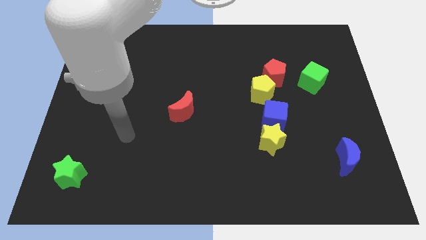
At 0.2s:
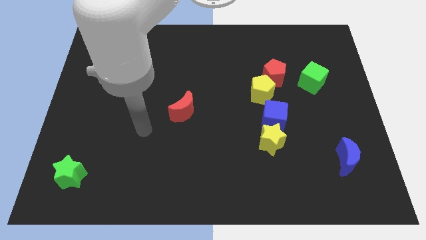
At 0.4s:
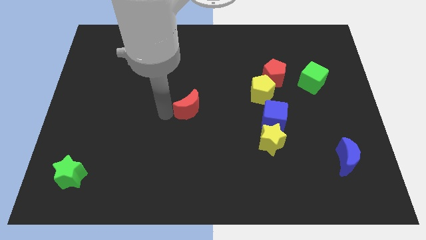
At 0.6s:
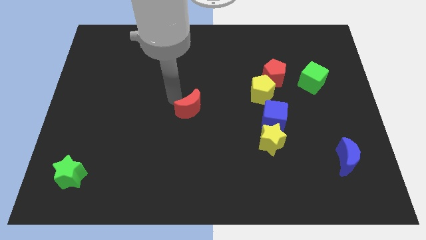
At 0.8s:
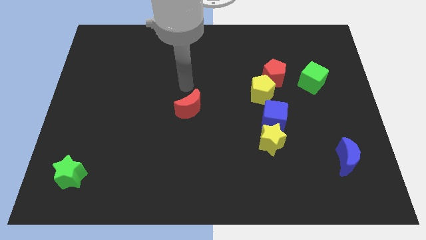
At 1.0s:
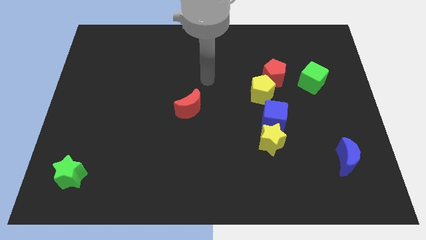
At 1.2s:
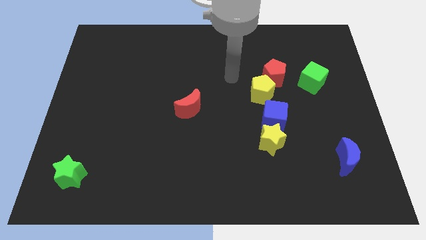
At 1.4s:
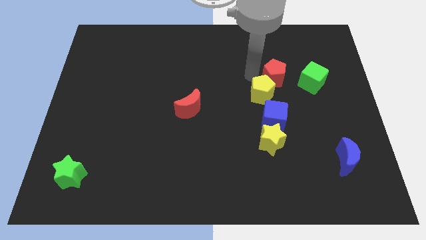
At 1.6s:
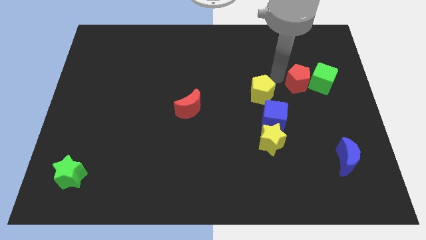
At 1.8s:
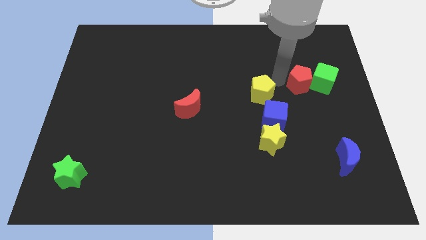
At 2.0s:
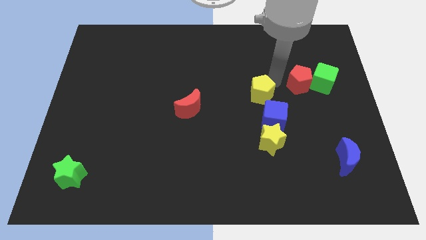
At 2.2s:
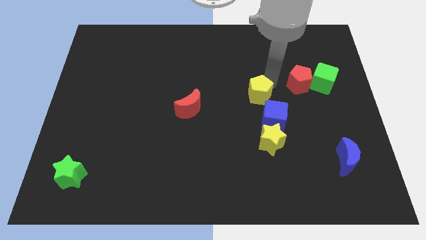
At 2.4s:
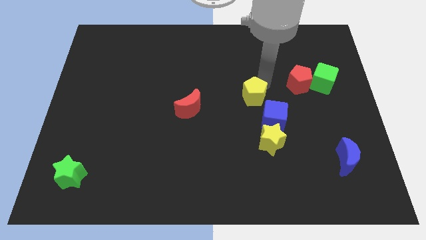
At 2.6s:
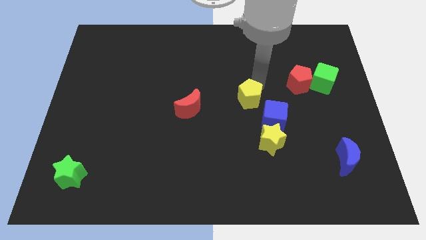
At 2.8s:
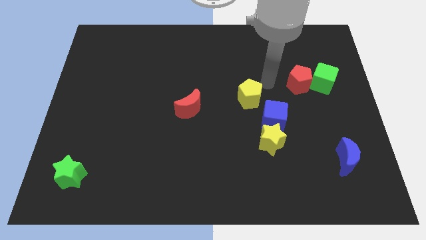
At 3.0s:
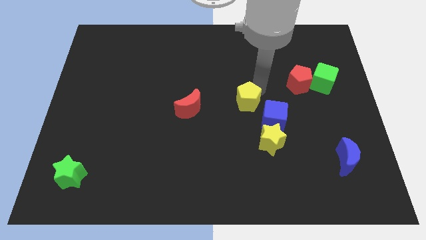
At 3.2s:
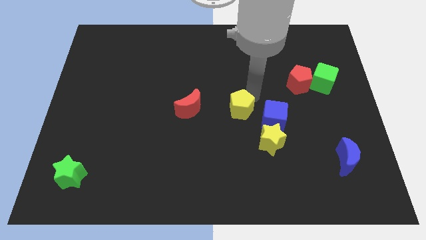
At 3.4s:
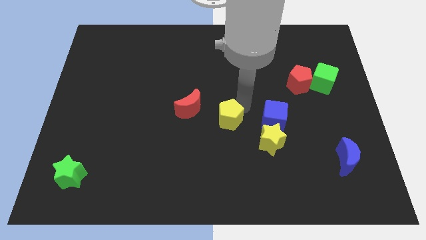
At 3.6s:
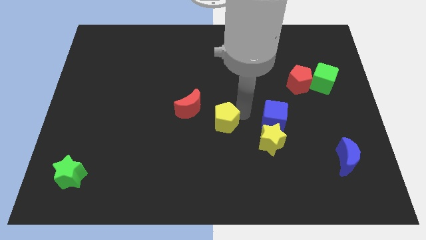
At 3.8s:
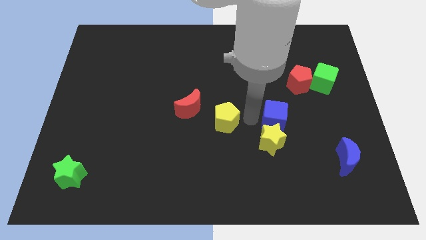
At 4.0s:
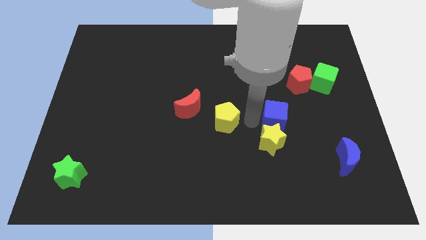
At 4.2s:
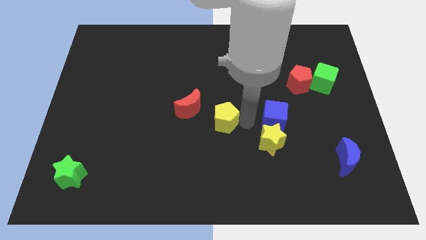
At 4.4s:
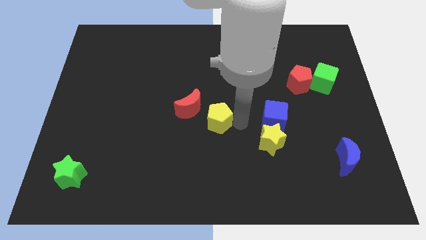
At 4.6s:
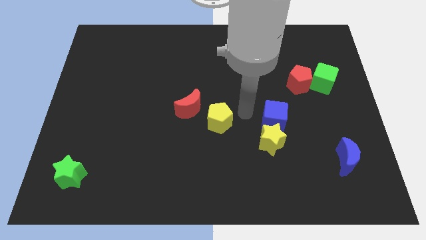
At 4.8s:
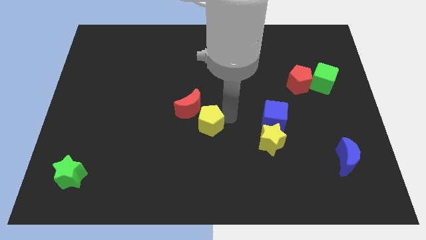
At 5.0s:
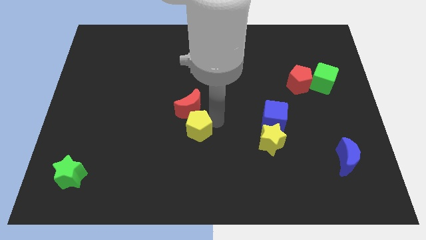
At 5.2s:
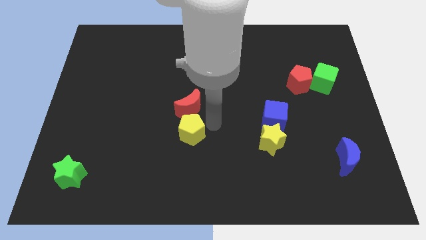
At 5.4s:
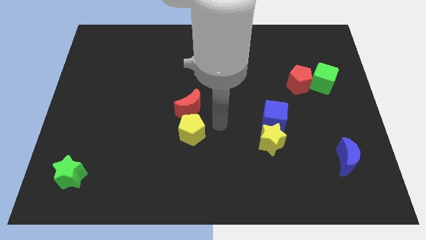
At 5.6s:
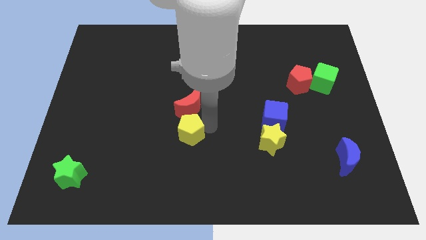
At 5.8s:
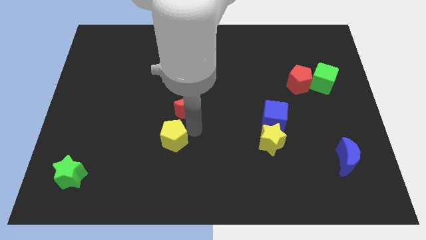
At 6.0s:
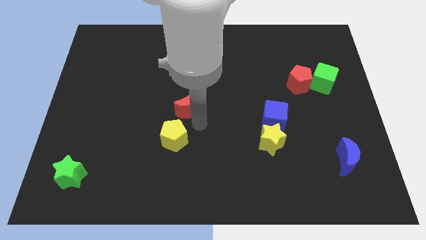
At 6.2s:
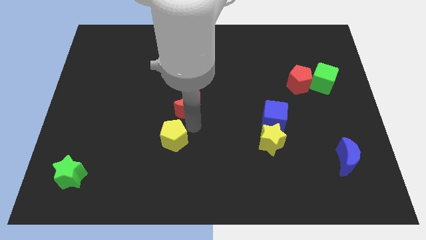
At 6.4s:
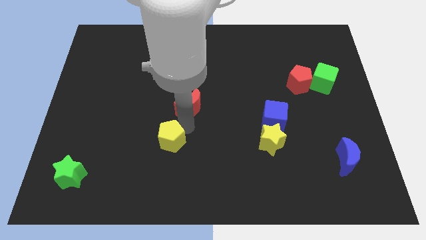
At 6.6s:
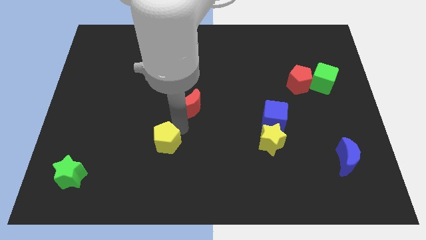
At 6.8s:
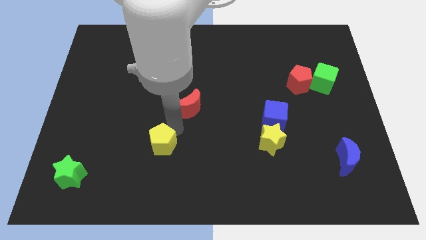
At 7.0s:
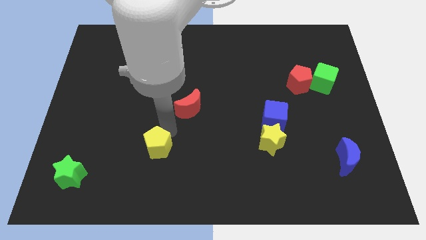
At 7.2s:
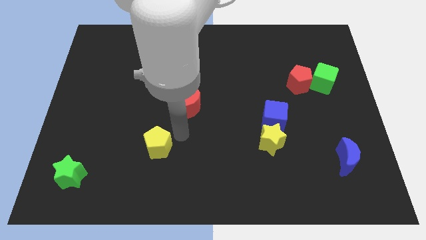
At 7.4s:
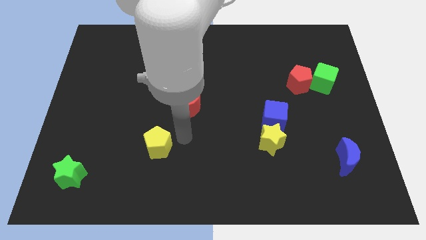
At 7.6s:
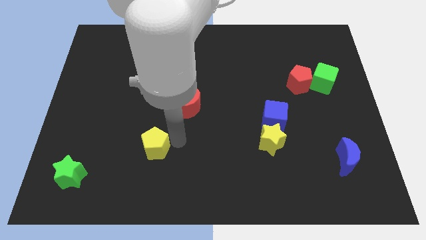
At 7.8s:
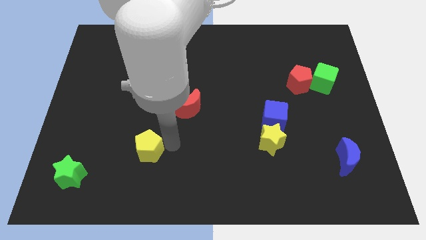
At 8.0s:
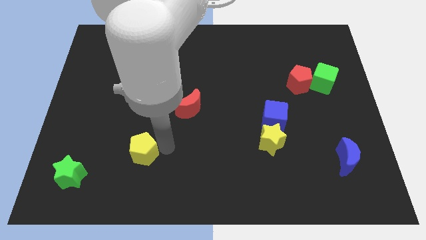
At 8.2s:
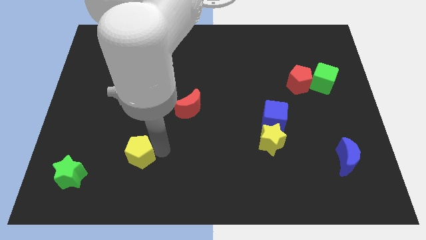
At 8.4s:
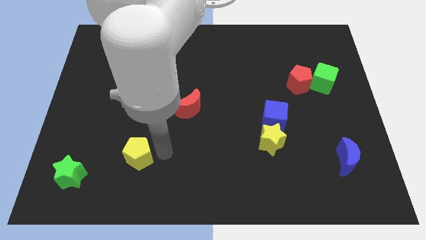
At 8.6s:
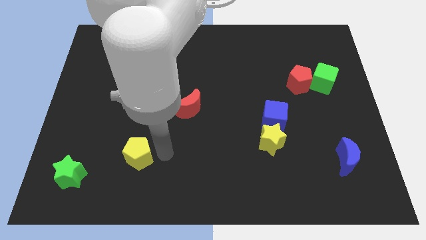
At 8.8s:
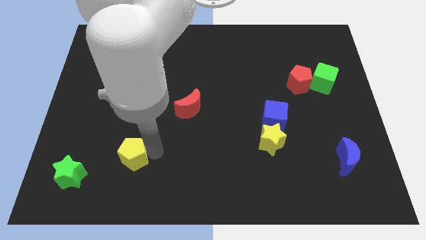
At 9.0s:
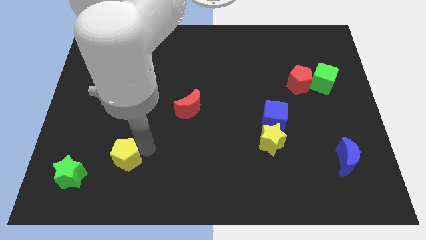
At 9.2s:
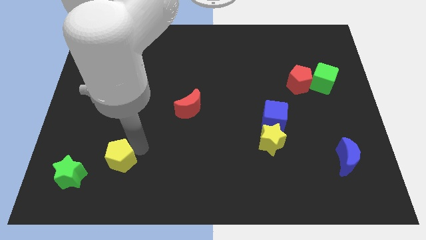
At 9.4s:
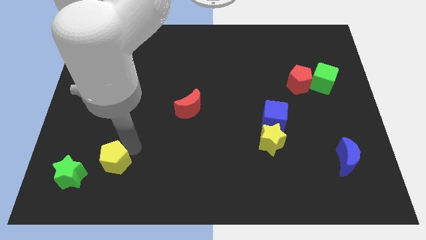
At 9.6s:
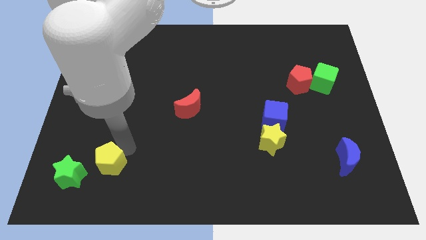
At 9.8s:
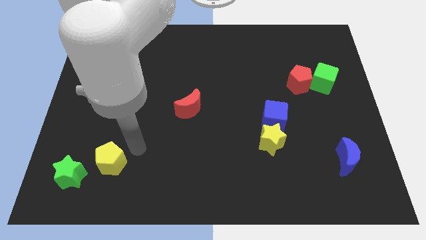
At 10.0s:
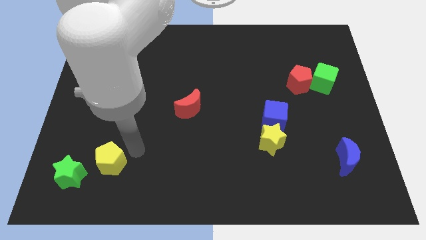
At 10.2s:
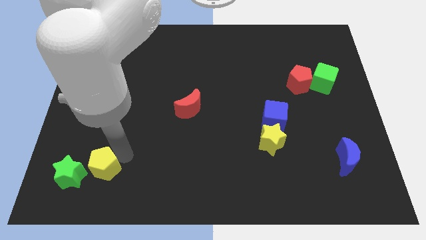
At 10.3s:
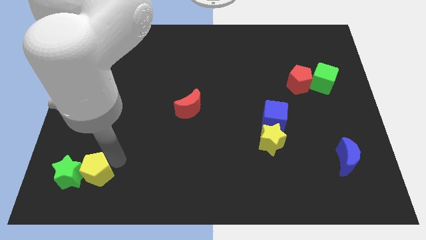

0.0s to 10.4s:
move the yellow pentagon close to the green star

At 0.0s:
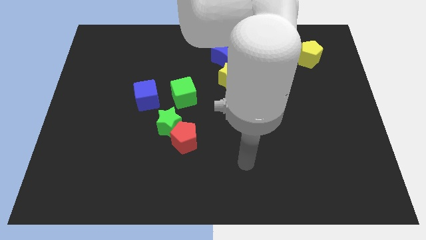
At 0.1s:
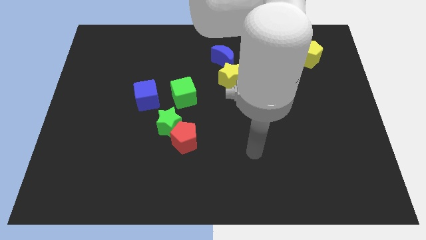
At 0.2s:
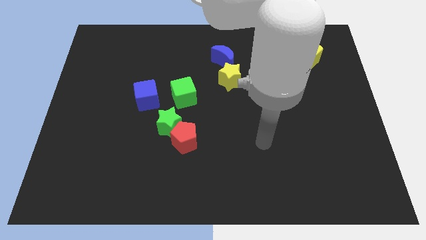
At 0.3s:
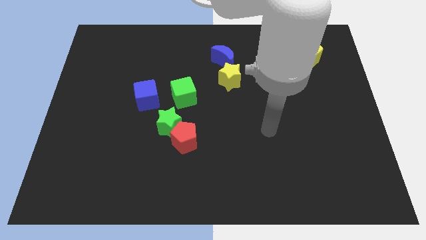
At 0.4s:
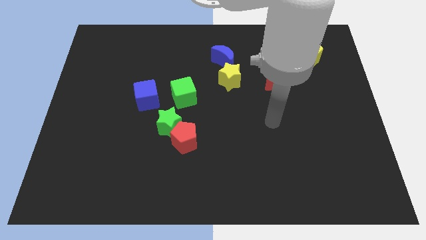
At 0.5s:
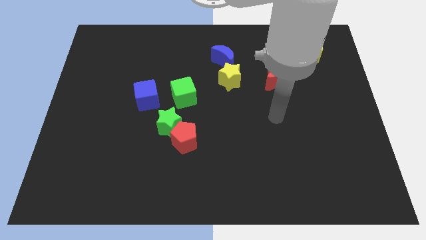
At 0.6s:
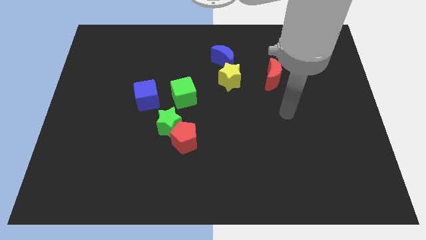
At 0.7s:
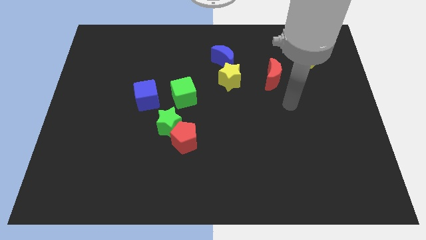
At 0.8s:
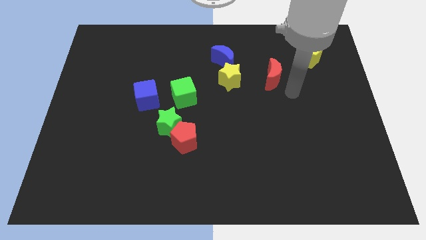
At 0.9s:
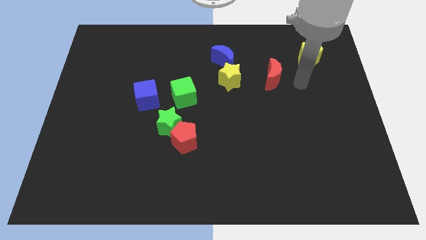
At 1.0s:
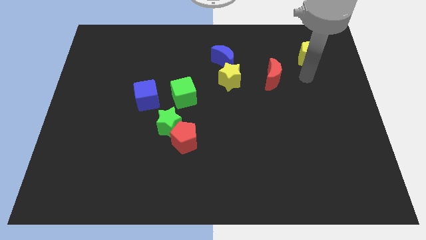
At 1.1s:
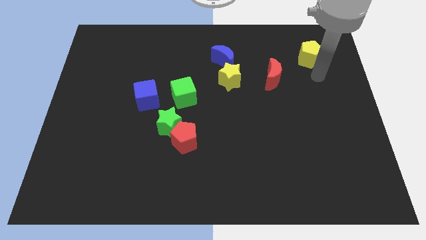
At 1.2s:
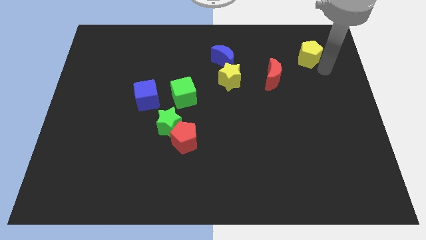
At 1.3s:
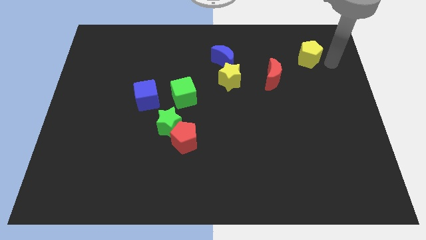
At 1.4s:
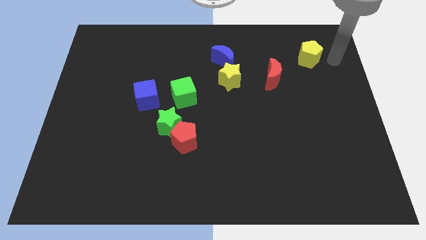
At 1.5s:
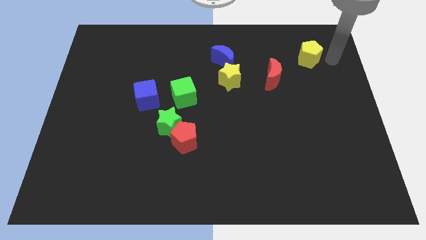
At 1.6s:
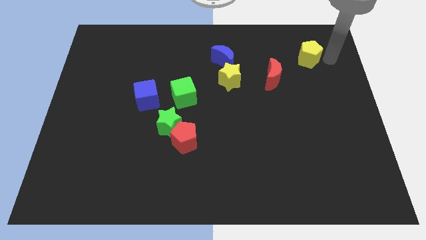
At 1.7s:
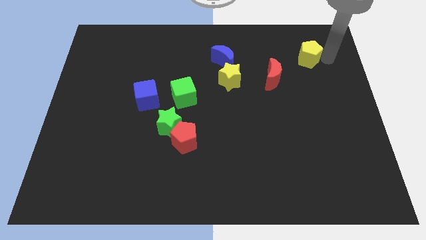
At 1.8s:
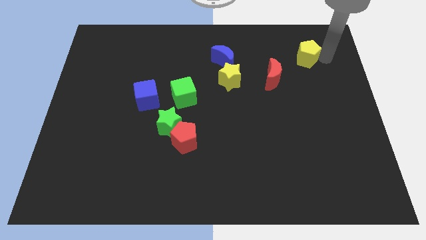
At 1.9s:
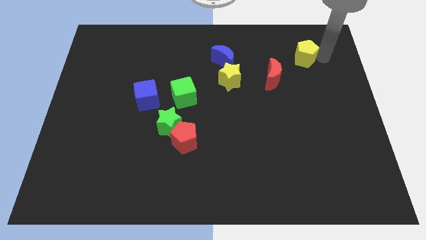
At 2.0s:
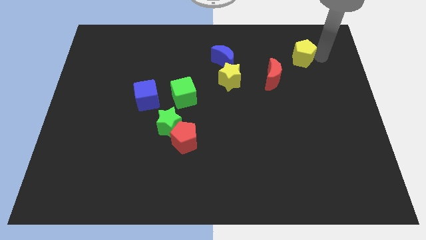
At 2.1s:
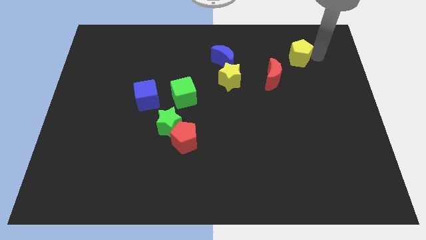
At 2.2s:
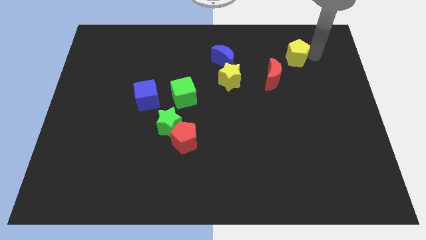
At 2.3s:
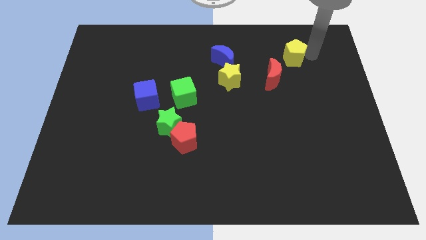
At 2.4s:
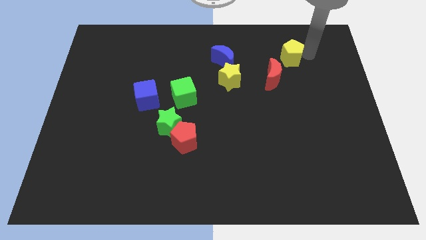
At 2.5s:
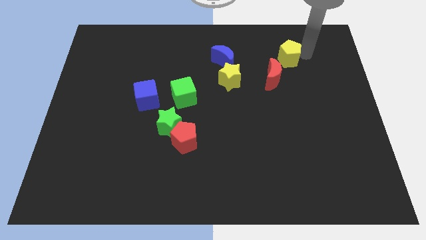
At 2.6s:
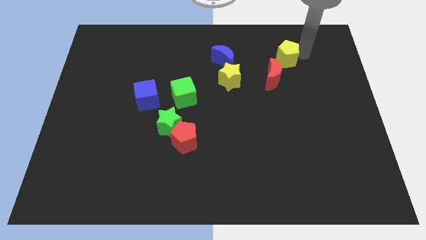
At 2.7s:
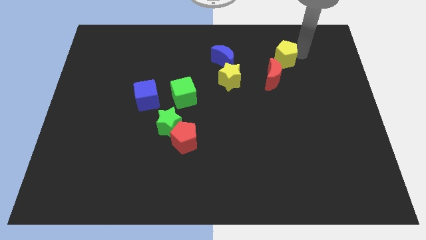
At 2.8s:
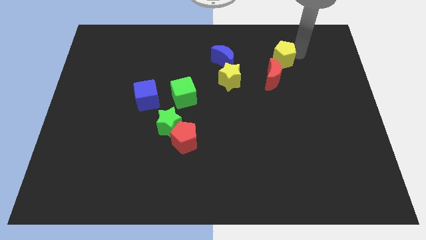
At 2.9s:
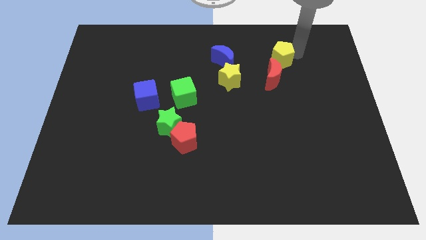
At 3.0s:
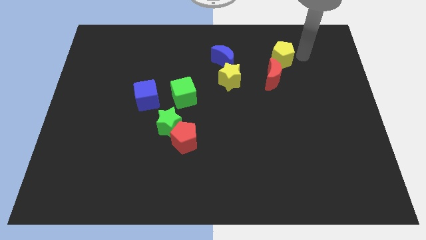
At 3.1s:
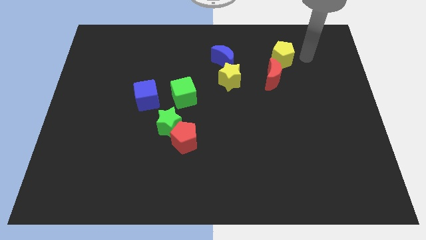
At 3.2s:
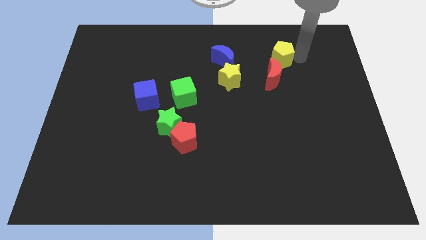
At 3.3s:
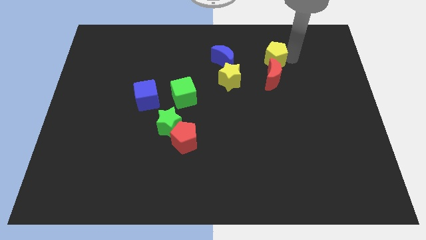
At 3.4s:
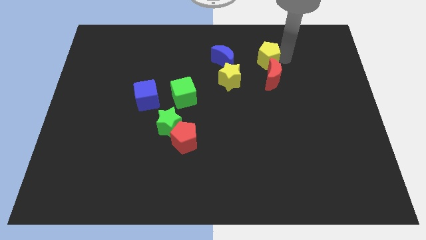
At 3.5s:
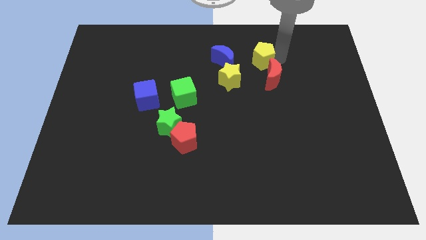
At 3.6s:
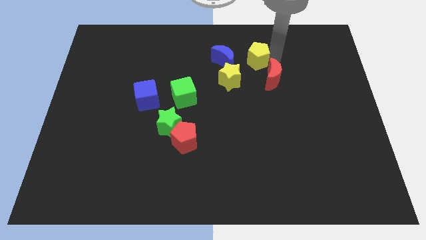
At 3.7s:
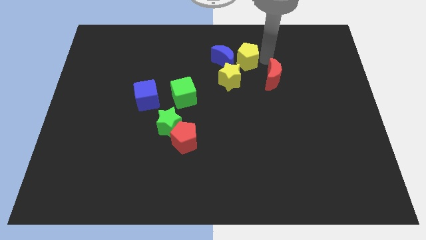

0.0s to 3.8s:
move the yellow pentagon to the blue moon
